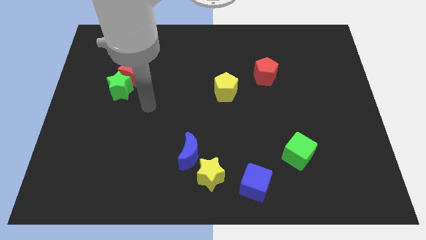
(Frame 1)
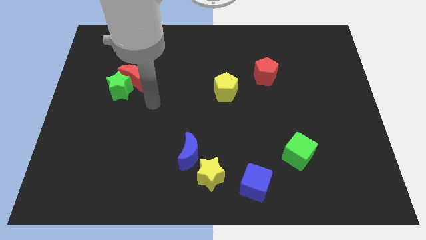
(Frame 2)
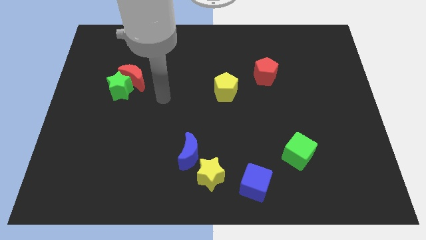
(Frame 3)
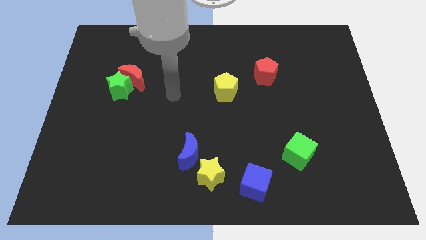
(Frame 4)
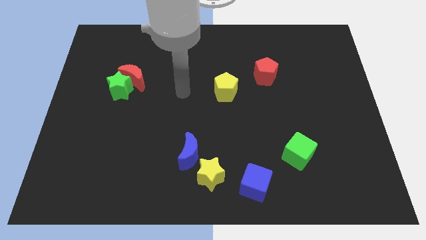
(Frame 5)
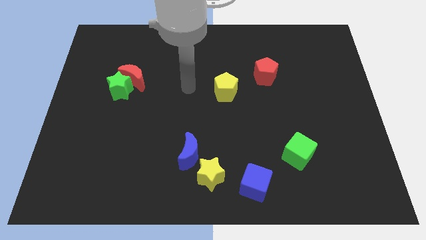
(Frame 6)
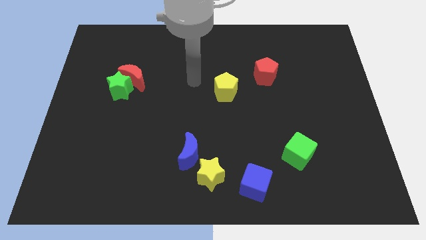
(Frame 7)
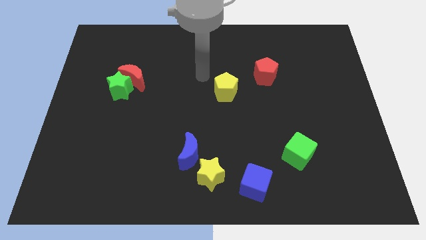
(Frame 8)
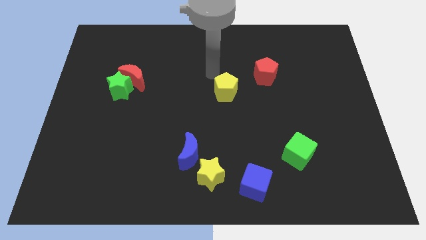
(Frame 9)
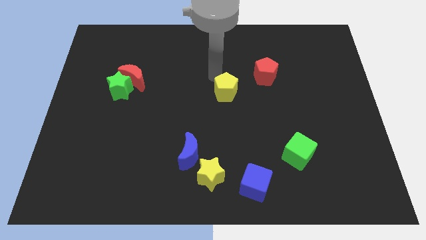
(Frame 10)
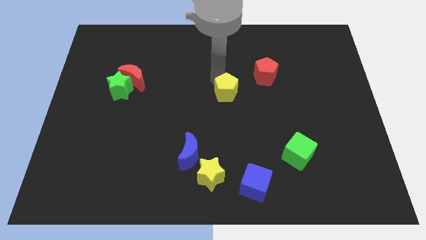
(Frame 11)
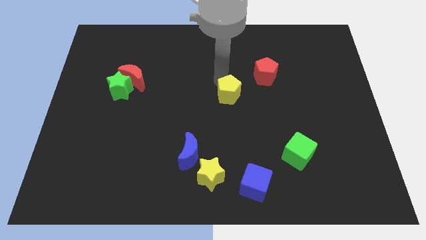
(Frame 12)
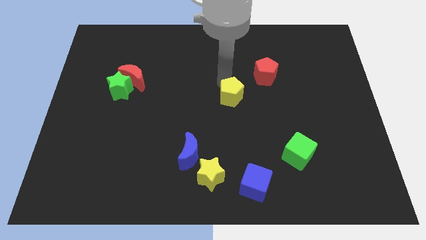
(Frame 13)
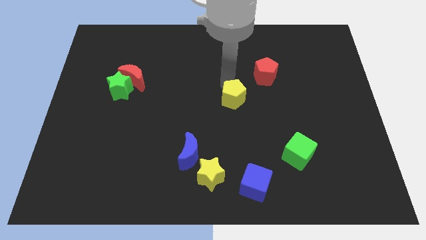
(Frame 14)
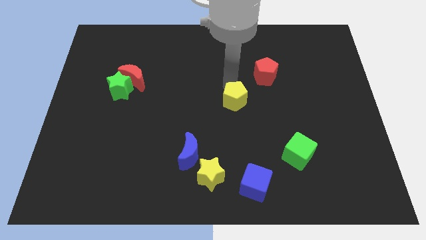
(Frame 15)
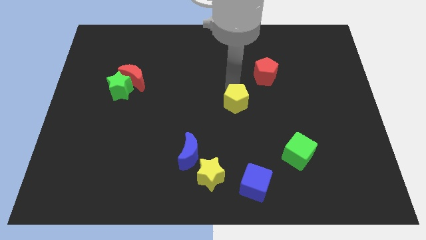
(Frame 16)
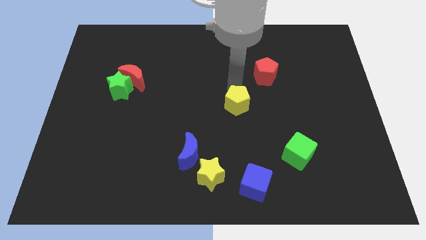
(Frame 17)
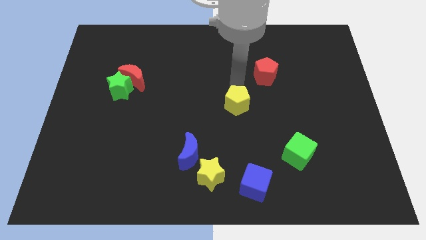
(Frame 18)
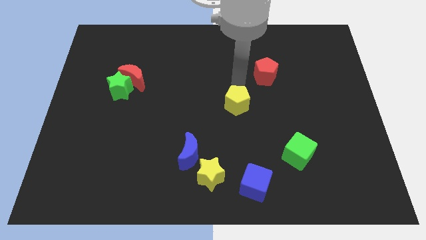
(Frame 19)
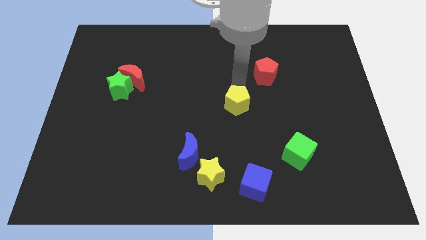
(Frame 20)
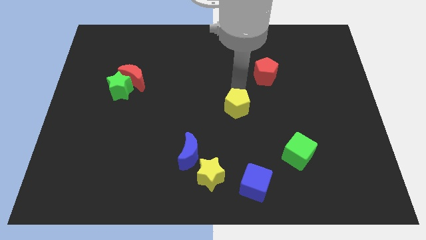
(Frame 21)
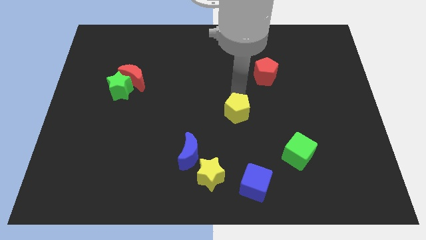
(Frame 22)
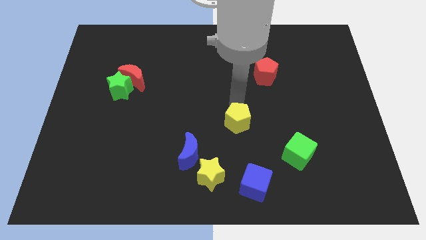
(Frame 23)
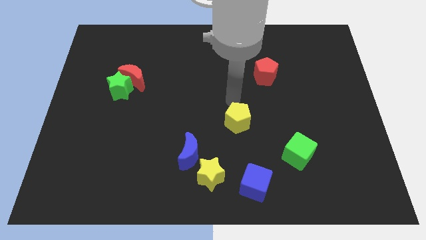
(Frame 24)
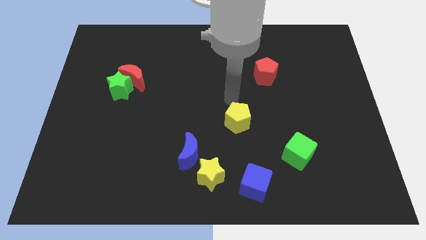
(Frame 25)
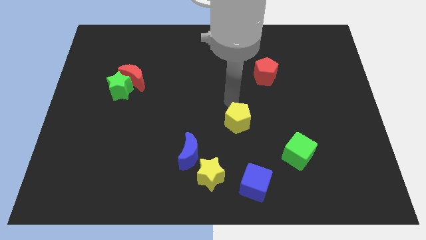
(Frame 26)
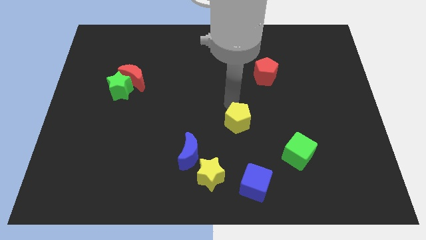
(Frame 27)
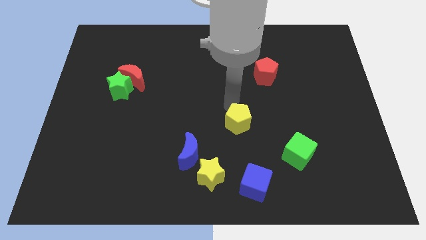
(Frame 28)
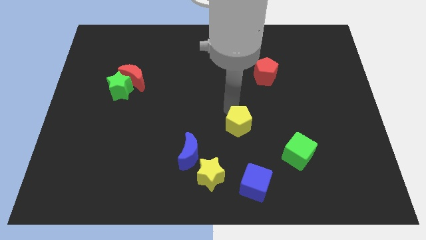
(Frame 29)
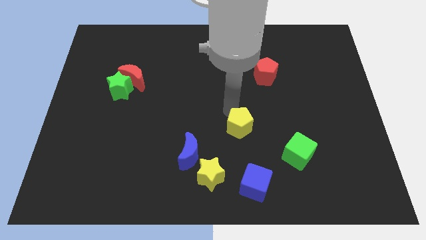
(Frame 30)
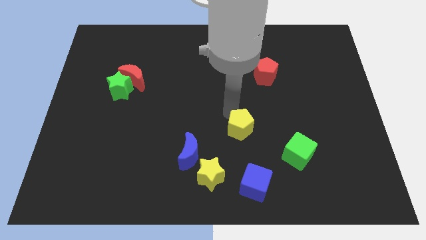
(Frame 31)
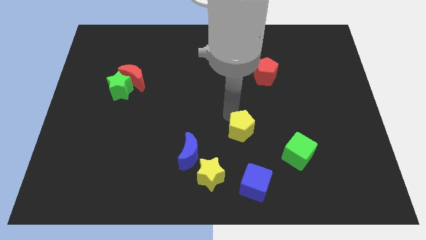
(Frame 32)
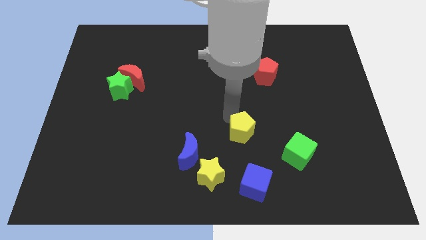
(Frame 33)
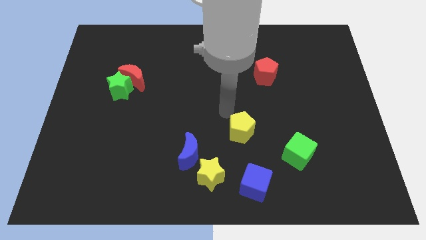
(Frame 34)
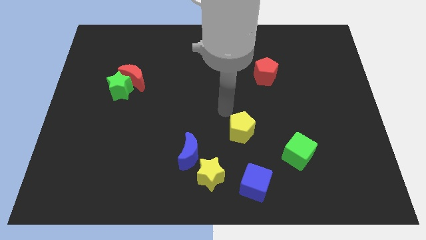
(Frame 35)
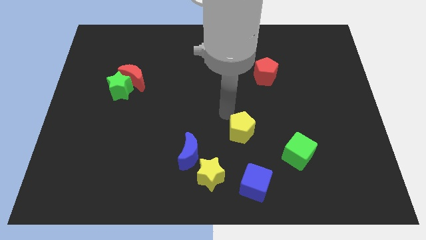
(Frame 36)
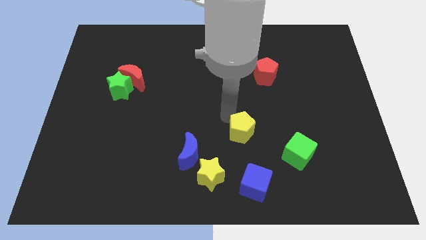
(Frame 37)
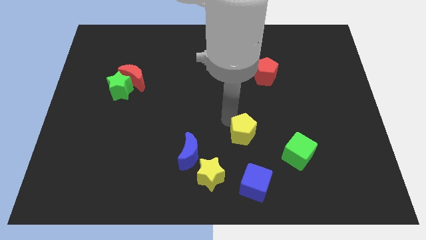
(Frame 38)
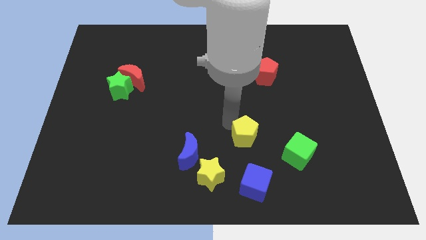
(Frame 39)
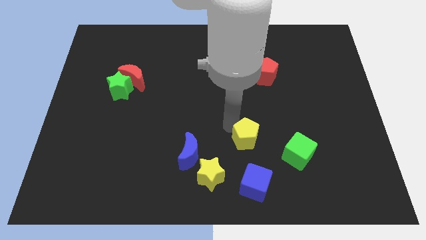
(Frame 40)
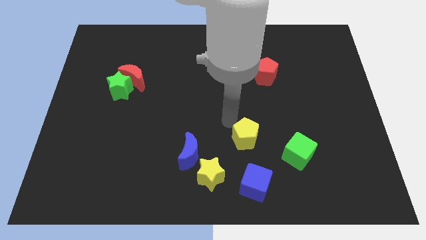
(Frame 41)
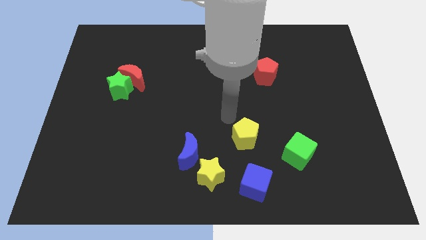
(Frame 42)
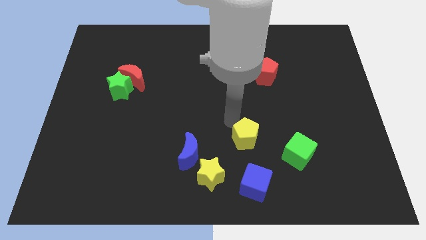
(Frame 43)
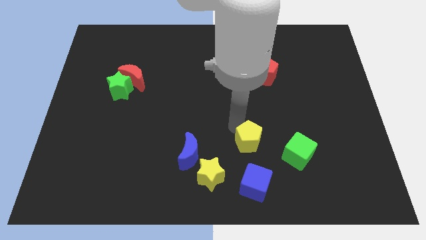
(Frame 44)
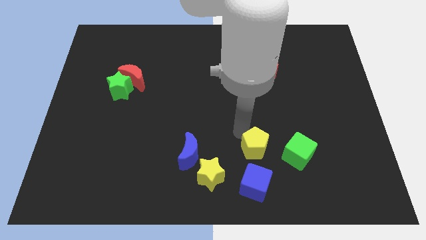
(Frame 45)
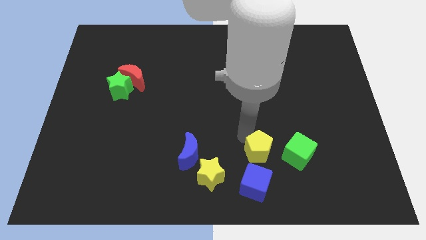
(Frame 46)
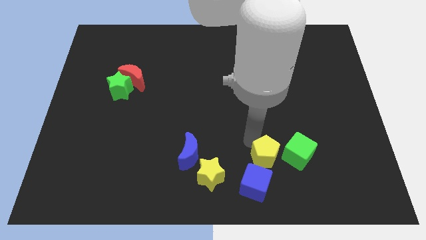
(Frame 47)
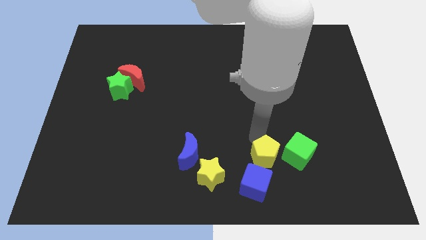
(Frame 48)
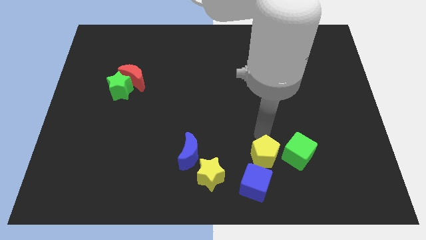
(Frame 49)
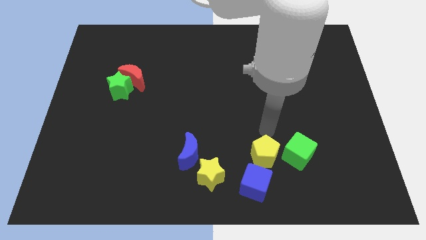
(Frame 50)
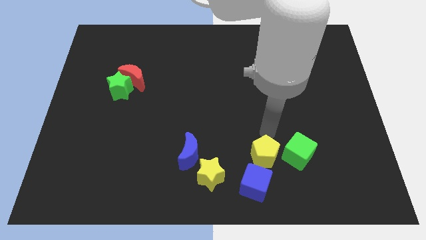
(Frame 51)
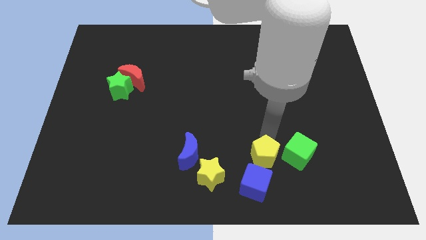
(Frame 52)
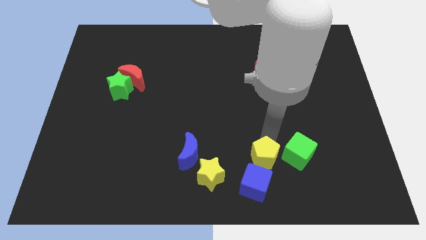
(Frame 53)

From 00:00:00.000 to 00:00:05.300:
slide the yellow pentagon to the right of the yellow star

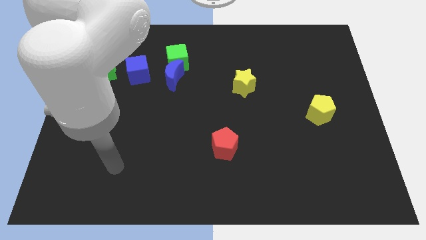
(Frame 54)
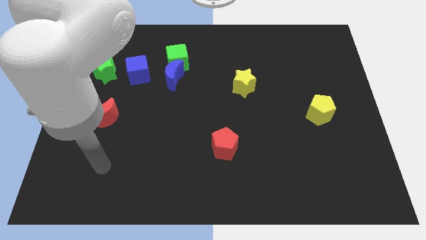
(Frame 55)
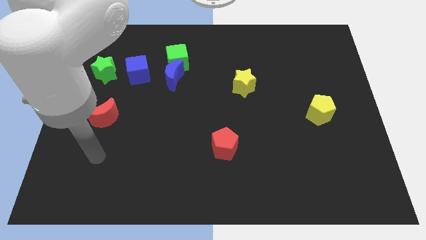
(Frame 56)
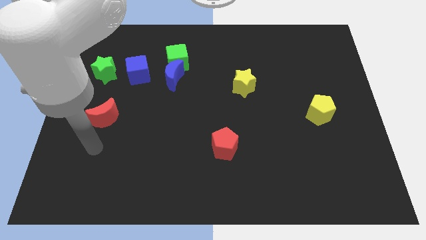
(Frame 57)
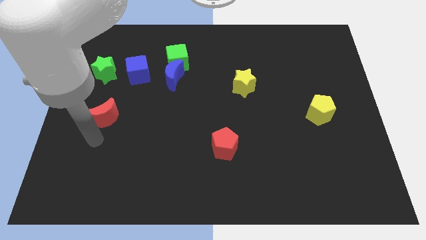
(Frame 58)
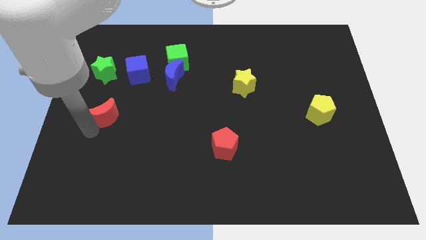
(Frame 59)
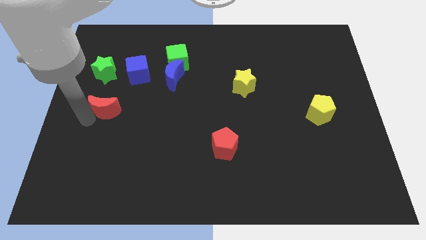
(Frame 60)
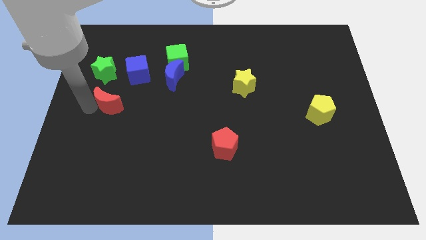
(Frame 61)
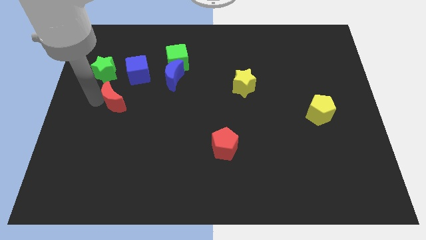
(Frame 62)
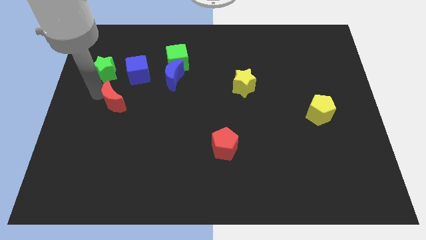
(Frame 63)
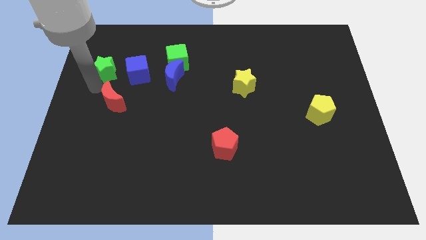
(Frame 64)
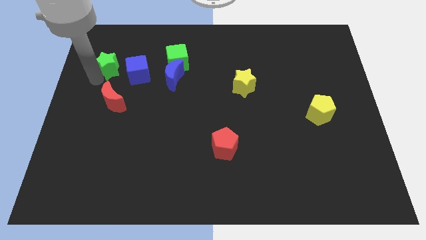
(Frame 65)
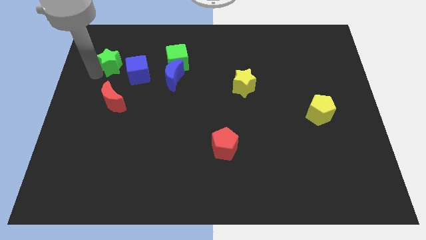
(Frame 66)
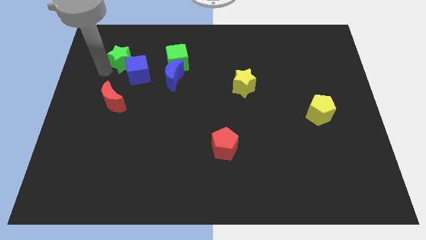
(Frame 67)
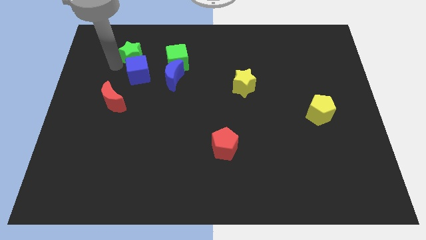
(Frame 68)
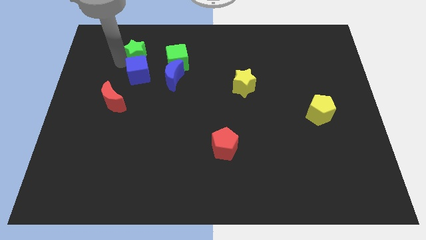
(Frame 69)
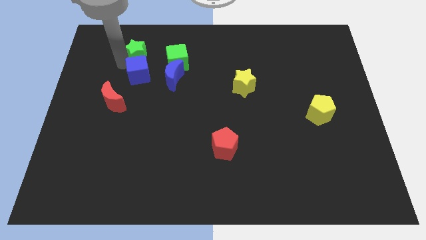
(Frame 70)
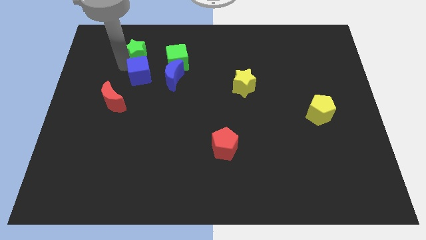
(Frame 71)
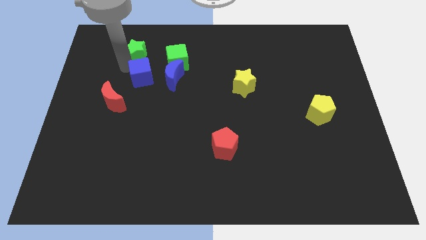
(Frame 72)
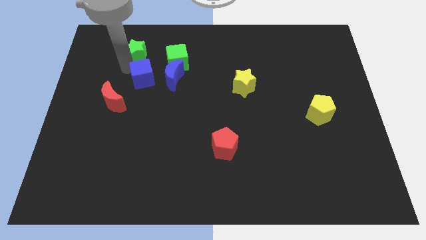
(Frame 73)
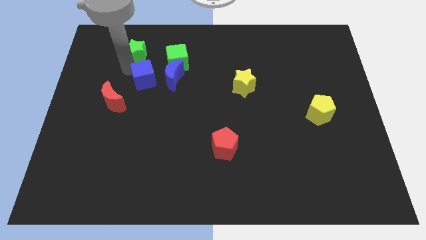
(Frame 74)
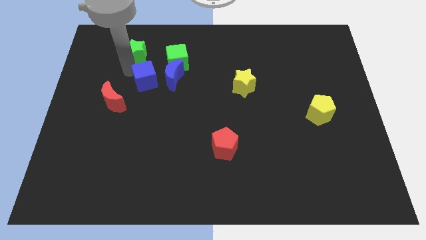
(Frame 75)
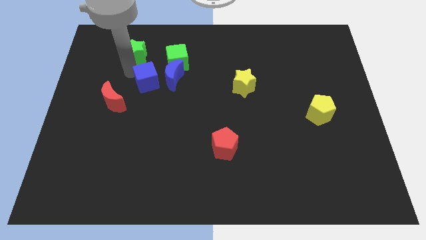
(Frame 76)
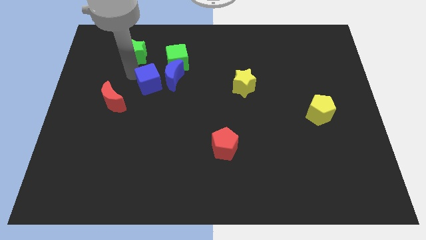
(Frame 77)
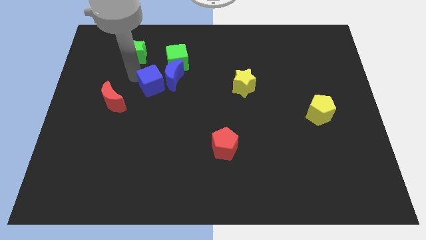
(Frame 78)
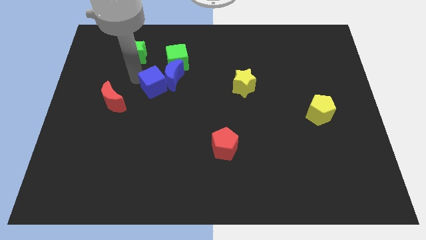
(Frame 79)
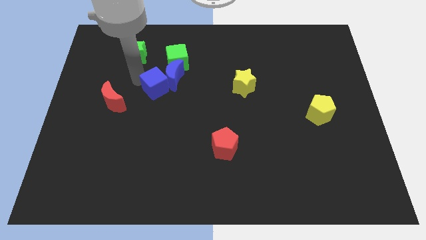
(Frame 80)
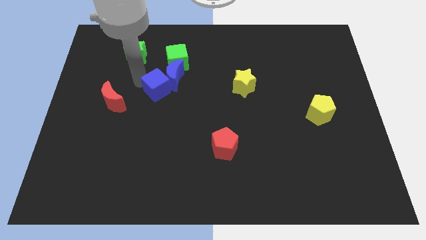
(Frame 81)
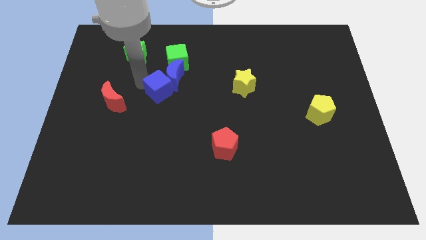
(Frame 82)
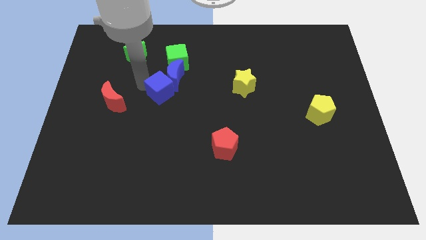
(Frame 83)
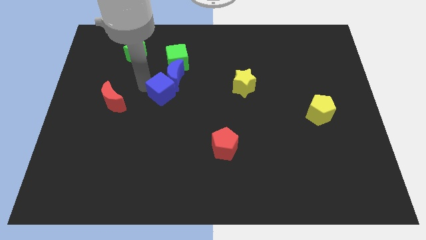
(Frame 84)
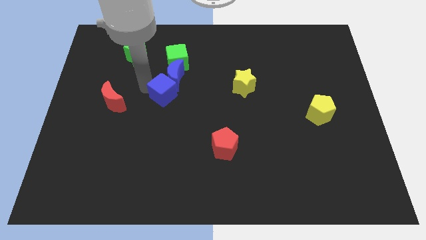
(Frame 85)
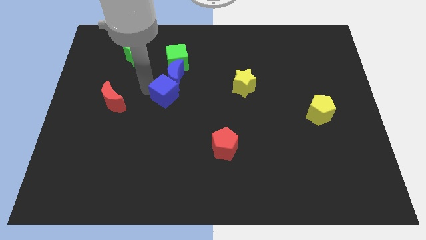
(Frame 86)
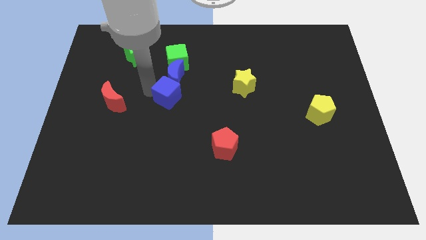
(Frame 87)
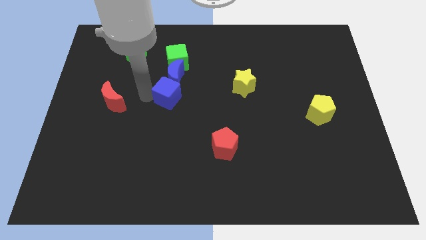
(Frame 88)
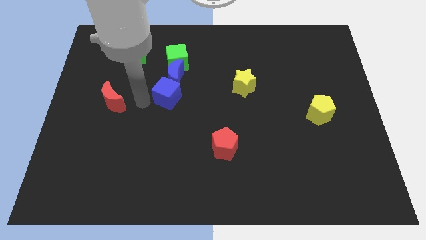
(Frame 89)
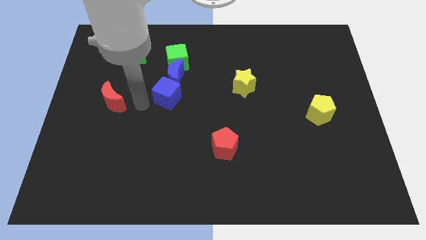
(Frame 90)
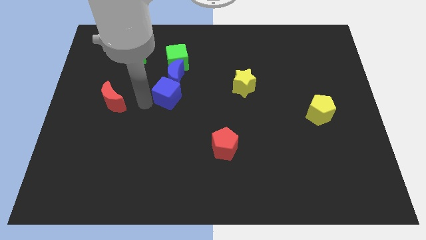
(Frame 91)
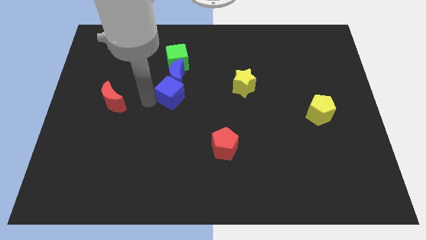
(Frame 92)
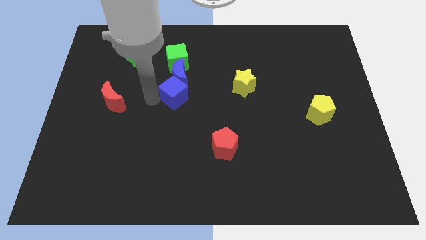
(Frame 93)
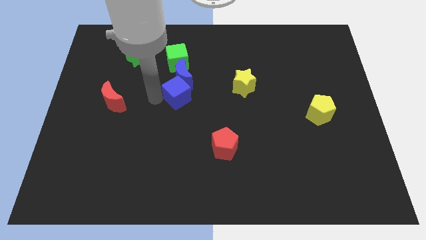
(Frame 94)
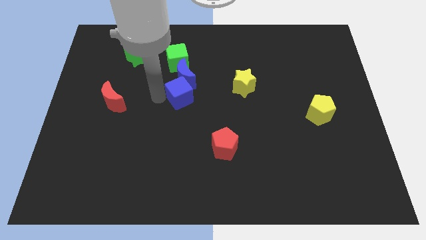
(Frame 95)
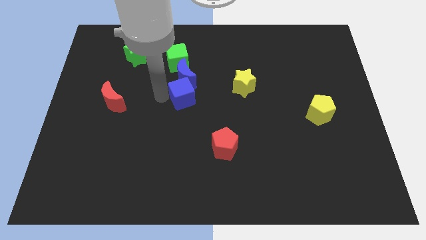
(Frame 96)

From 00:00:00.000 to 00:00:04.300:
move the blue cube just left of the yellow star
